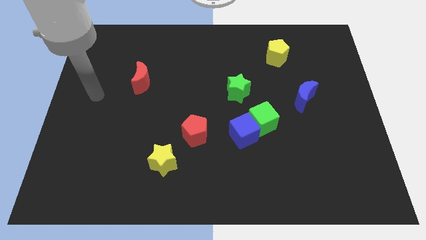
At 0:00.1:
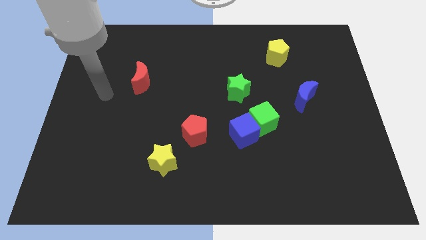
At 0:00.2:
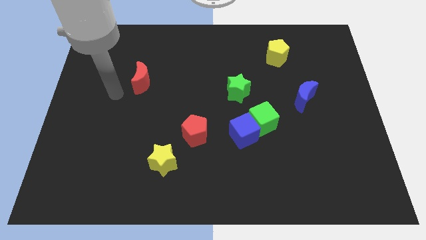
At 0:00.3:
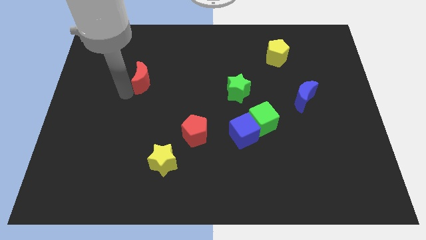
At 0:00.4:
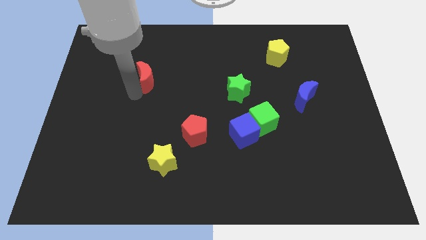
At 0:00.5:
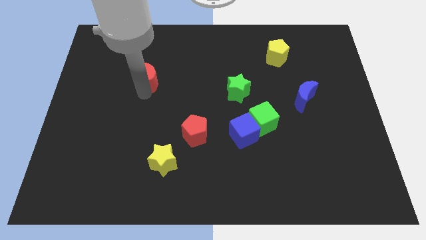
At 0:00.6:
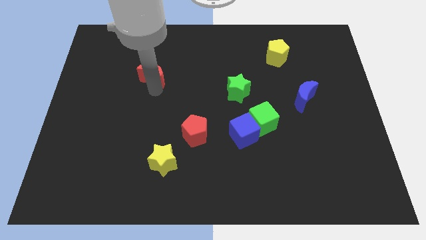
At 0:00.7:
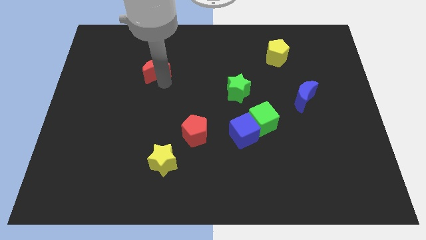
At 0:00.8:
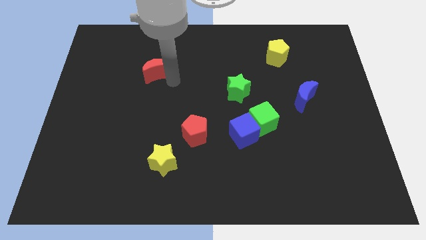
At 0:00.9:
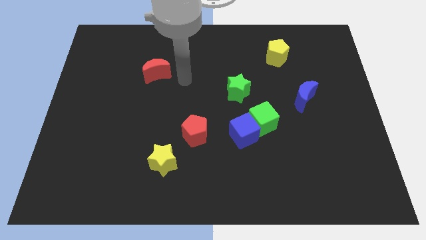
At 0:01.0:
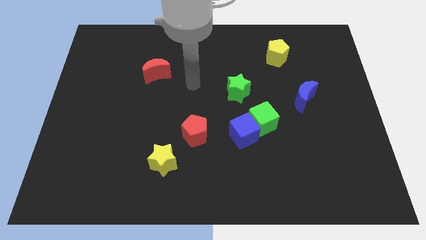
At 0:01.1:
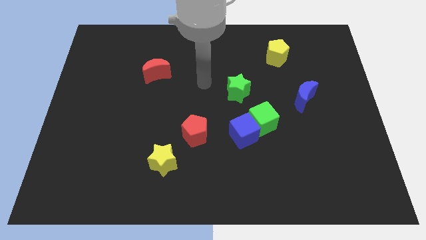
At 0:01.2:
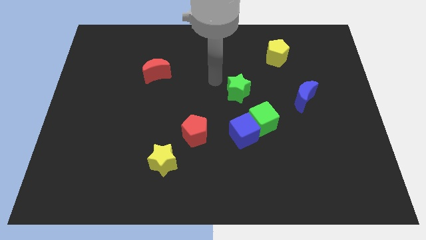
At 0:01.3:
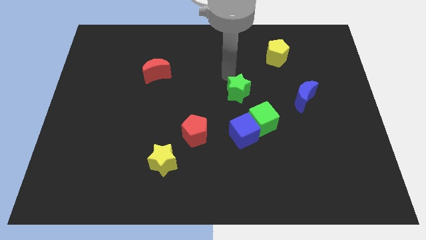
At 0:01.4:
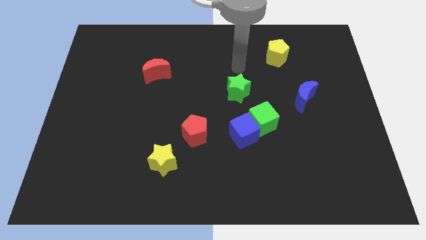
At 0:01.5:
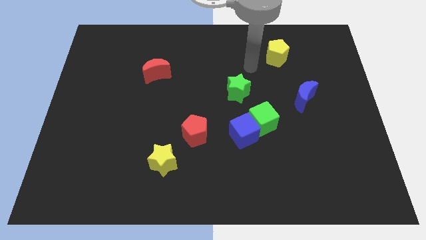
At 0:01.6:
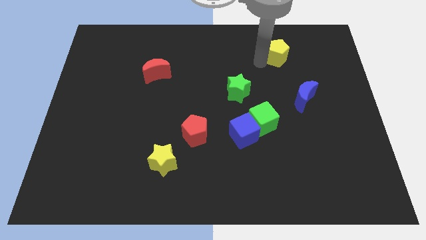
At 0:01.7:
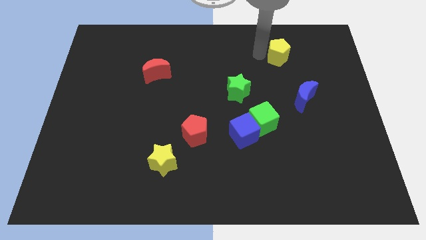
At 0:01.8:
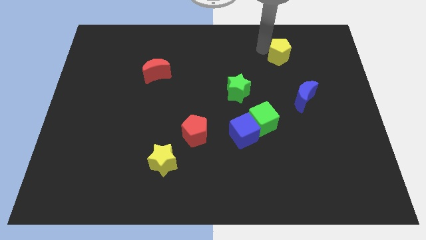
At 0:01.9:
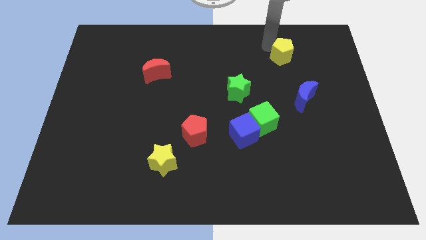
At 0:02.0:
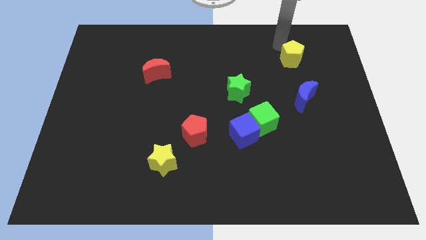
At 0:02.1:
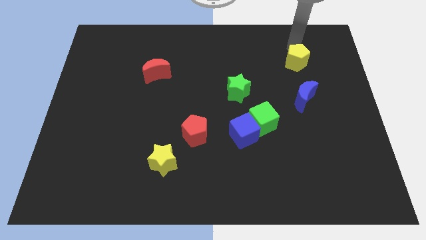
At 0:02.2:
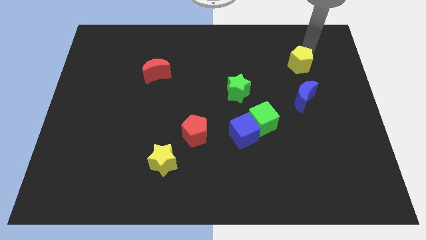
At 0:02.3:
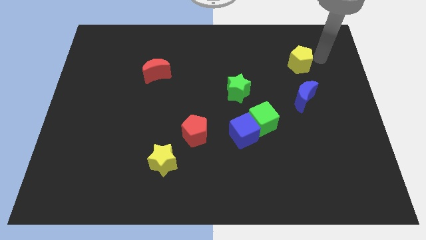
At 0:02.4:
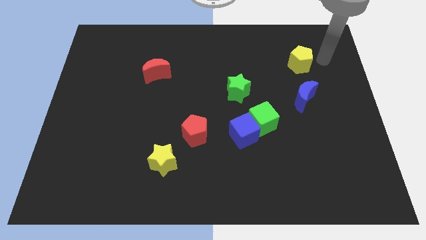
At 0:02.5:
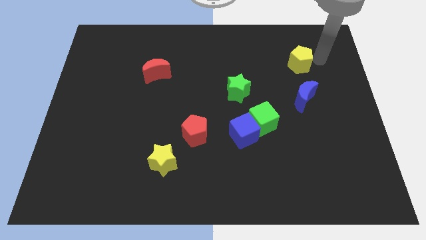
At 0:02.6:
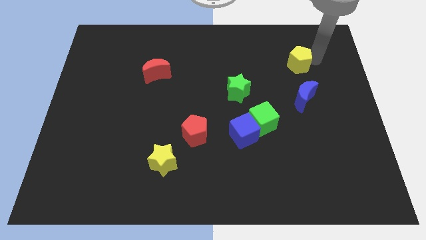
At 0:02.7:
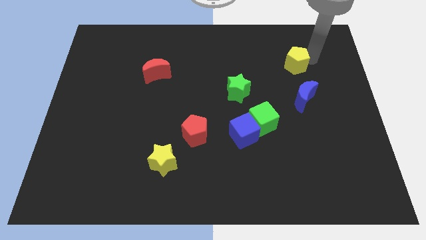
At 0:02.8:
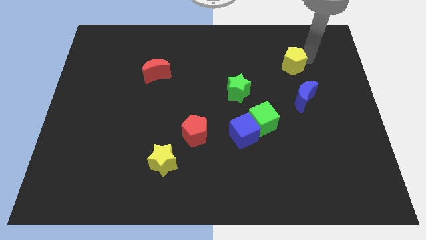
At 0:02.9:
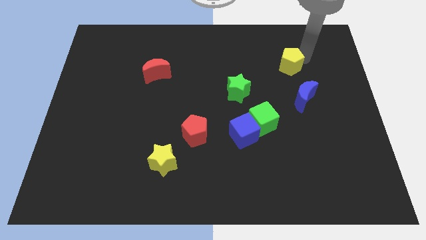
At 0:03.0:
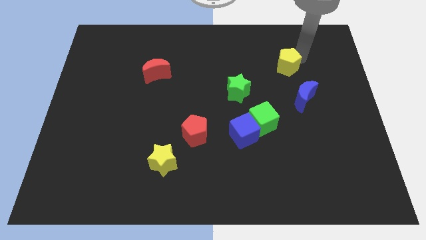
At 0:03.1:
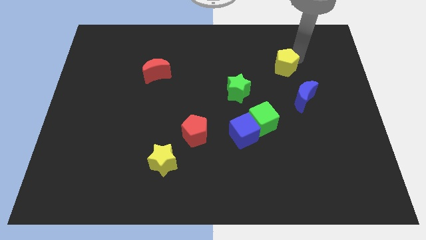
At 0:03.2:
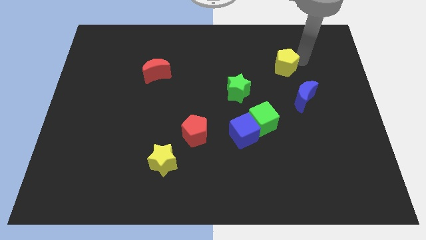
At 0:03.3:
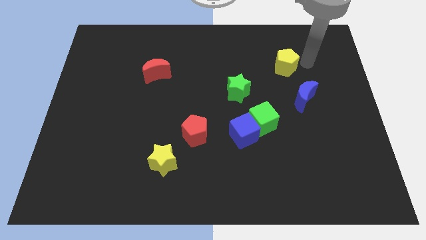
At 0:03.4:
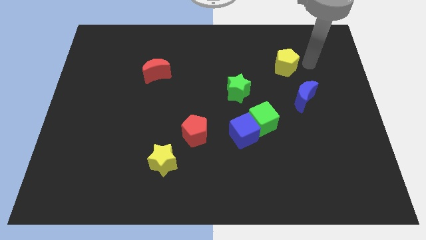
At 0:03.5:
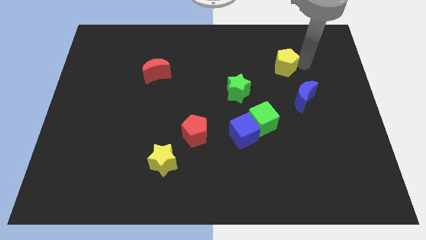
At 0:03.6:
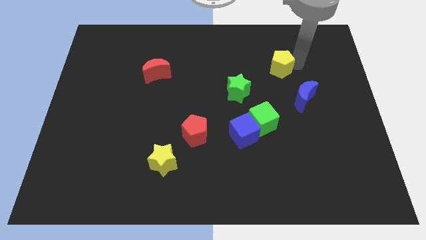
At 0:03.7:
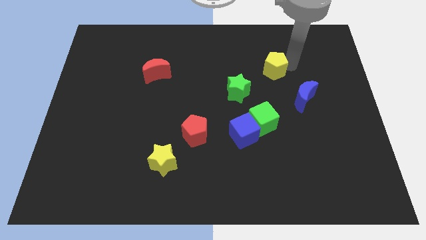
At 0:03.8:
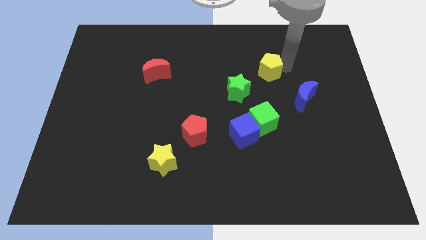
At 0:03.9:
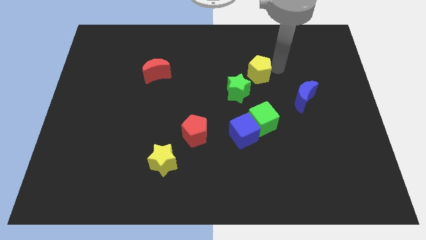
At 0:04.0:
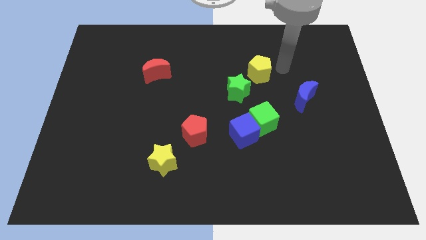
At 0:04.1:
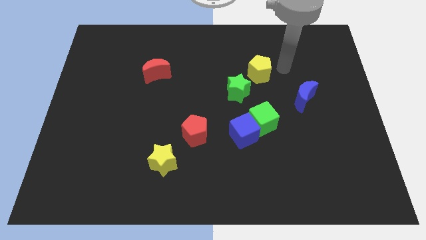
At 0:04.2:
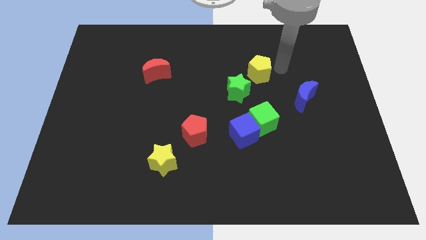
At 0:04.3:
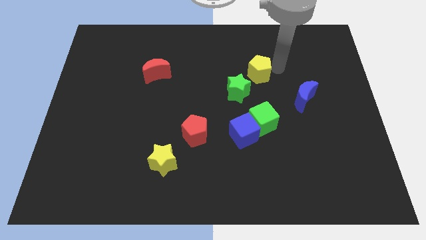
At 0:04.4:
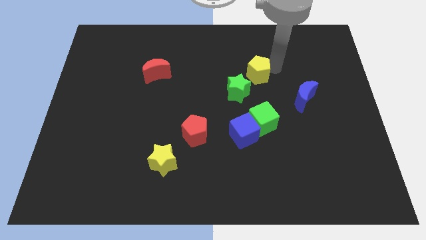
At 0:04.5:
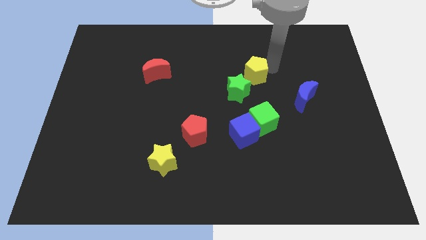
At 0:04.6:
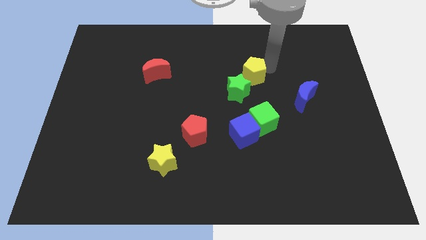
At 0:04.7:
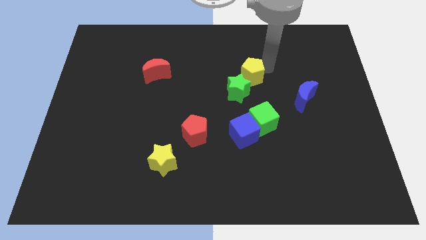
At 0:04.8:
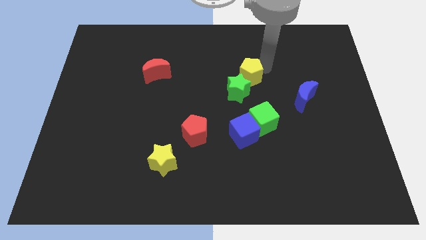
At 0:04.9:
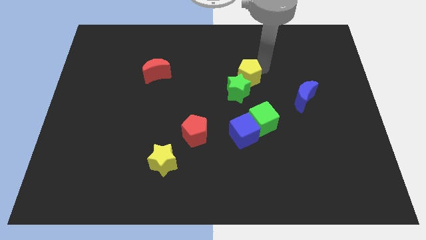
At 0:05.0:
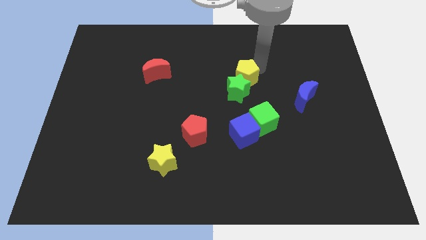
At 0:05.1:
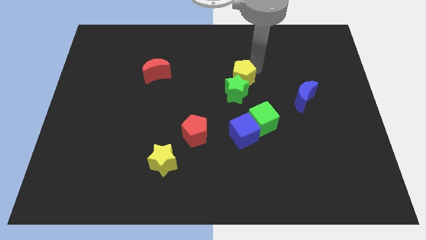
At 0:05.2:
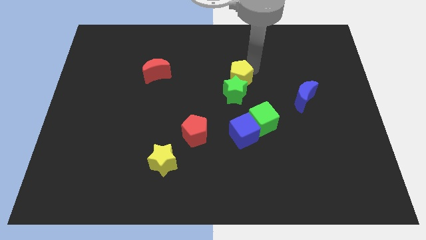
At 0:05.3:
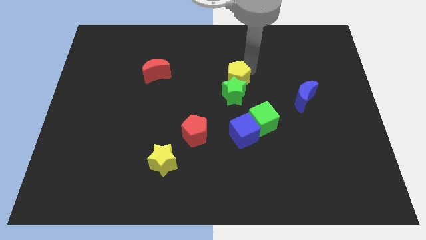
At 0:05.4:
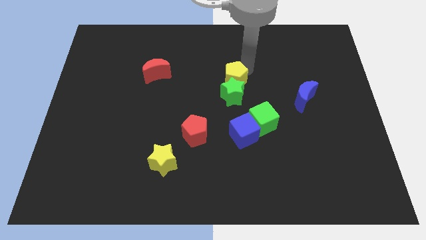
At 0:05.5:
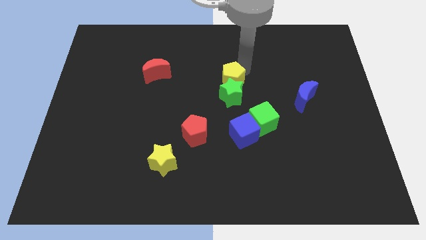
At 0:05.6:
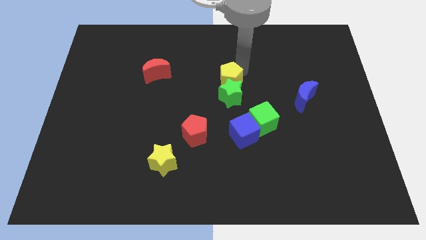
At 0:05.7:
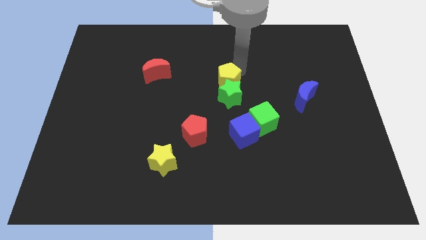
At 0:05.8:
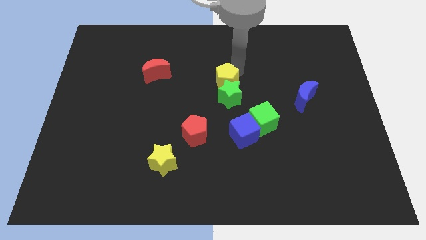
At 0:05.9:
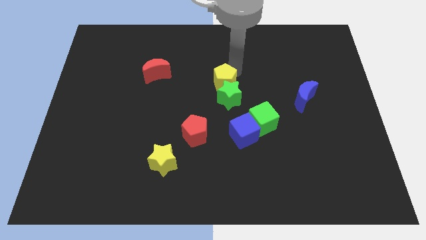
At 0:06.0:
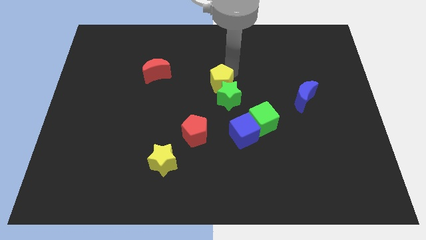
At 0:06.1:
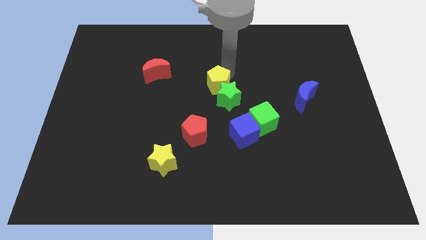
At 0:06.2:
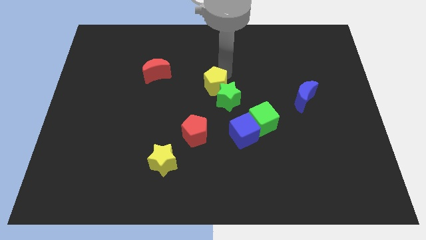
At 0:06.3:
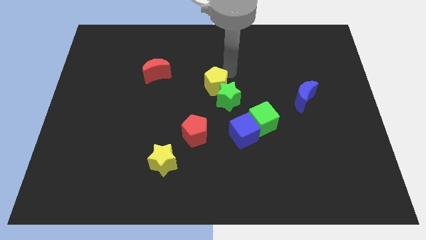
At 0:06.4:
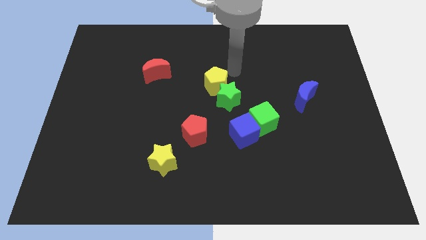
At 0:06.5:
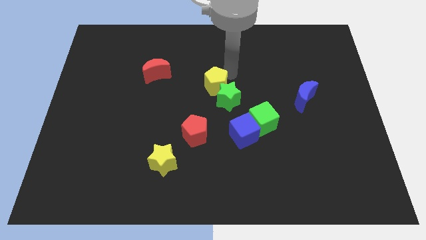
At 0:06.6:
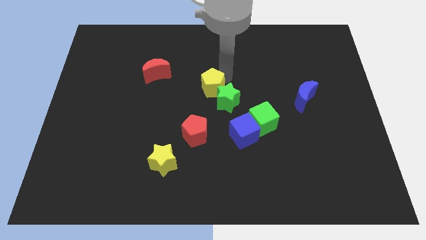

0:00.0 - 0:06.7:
push the yellow pentagon to the top side of the red pentagon
